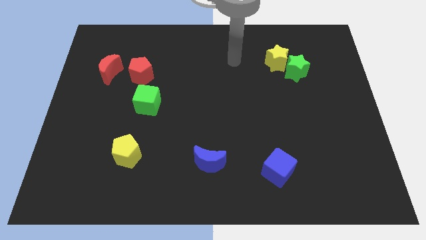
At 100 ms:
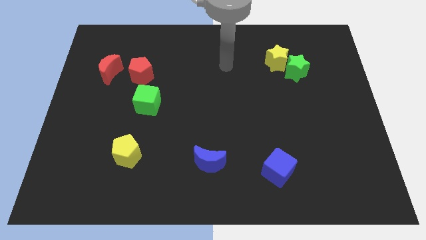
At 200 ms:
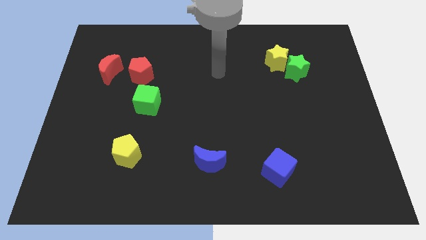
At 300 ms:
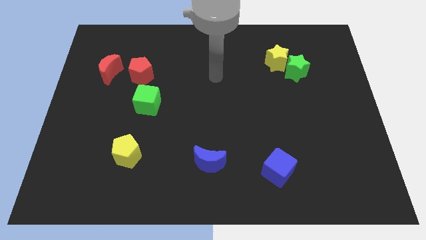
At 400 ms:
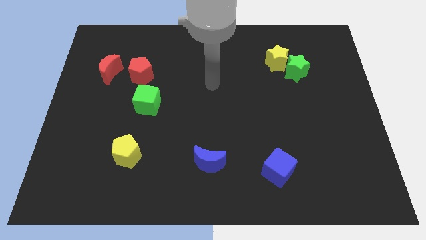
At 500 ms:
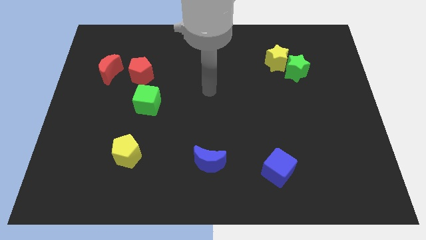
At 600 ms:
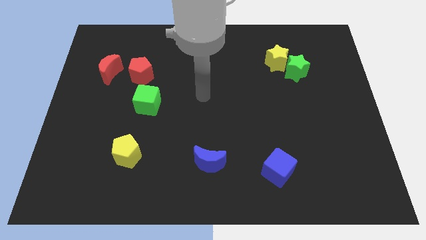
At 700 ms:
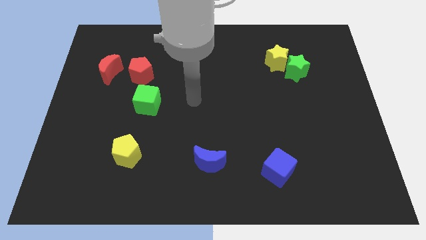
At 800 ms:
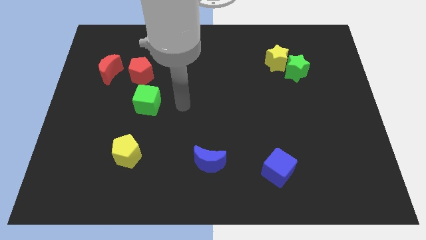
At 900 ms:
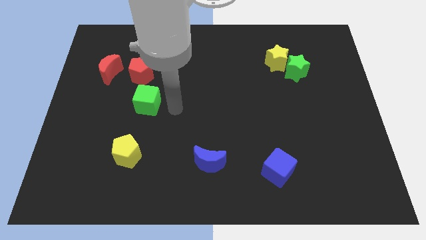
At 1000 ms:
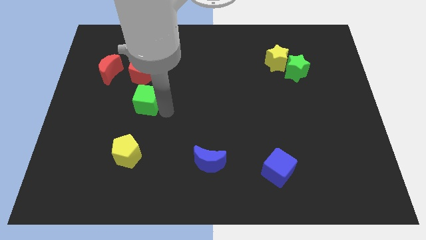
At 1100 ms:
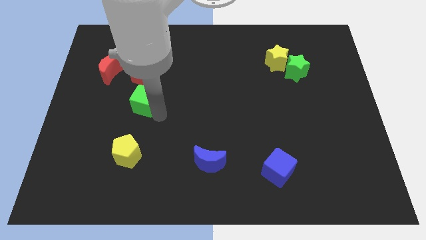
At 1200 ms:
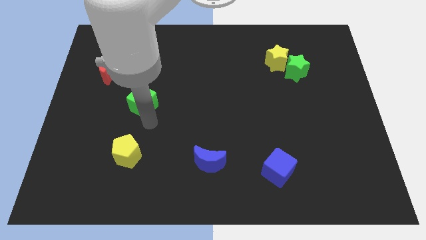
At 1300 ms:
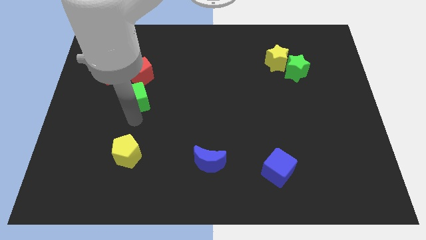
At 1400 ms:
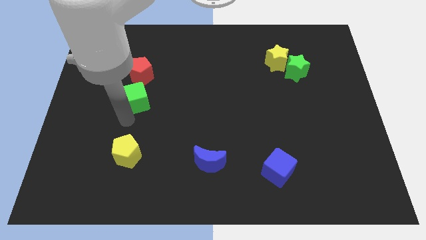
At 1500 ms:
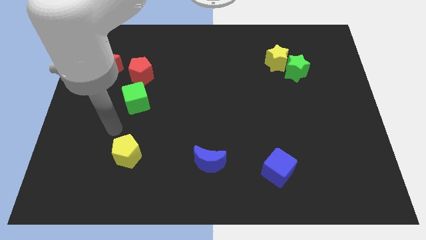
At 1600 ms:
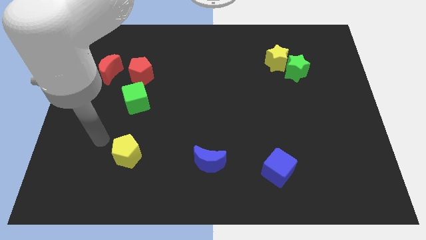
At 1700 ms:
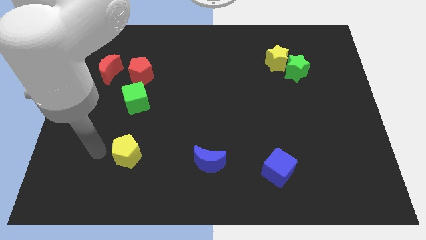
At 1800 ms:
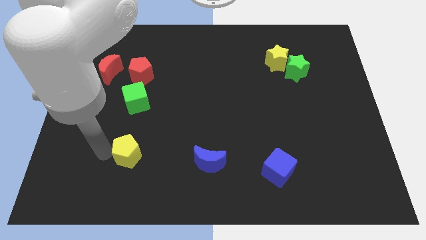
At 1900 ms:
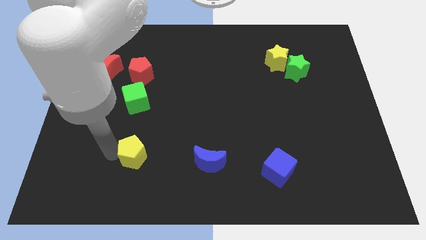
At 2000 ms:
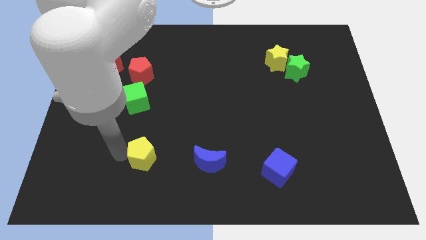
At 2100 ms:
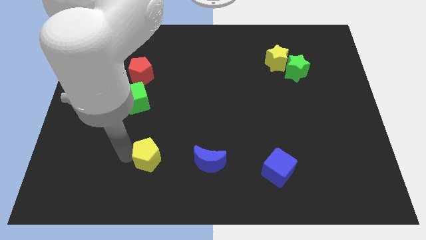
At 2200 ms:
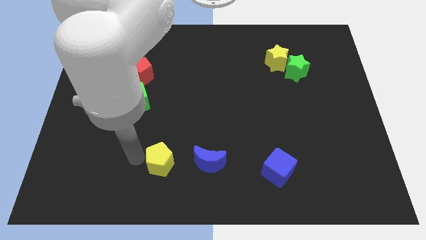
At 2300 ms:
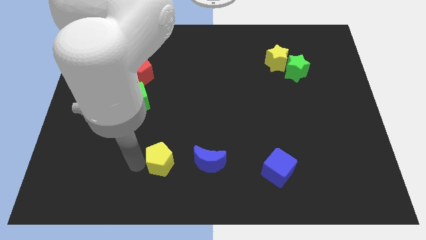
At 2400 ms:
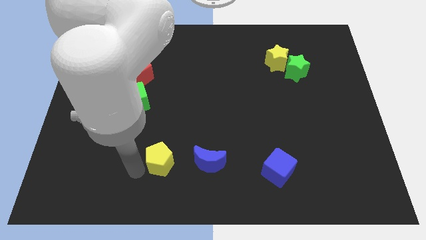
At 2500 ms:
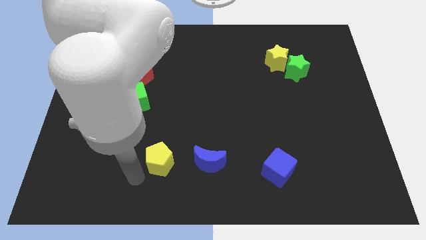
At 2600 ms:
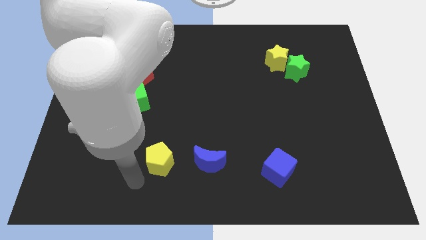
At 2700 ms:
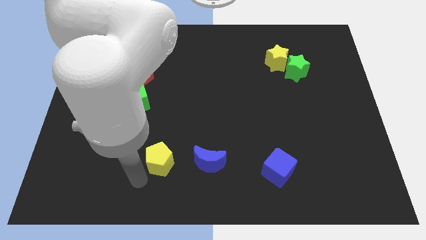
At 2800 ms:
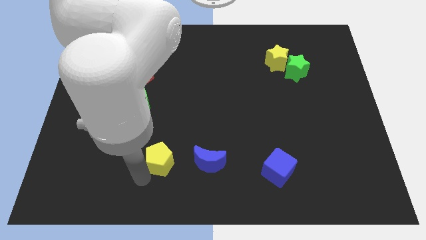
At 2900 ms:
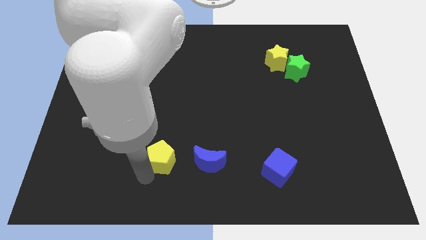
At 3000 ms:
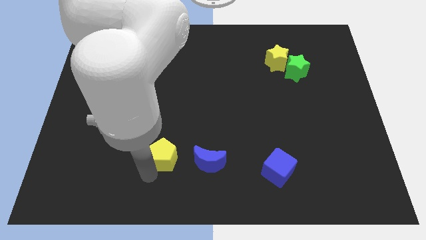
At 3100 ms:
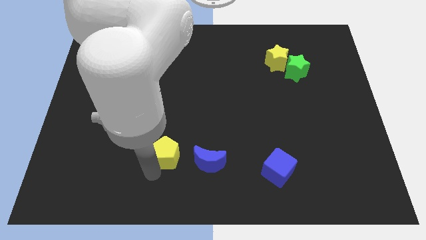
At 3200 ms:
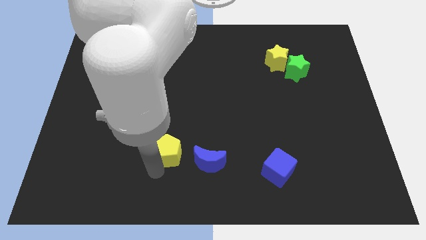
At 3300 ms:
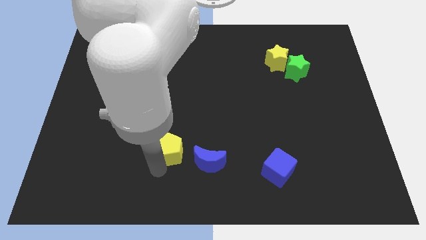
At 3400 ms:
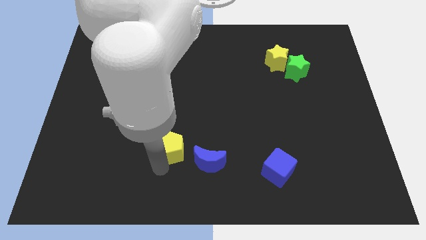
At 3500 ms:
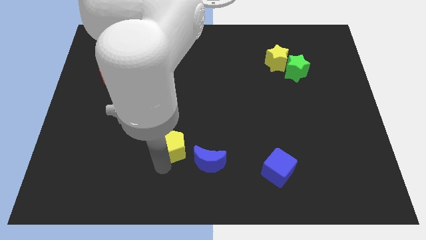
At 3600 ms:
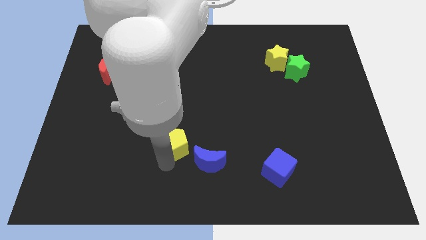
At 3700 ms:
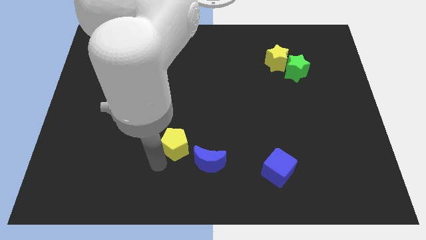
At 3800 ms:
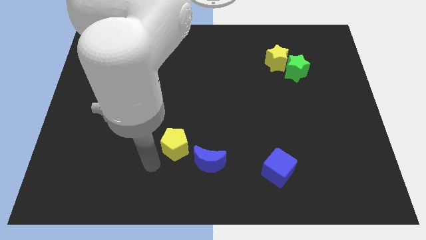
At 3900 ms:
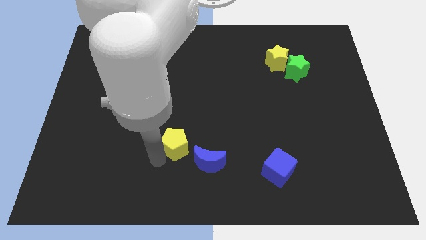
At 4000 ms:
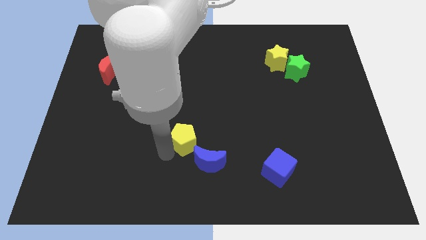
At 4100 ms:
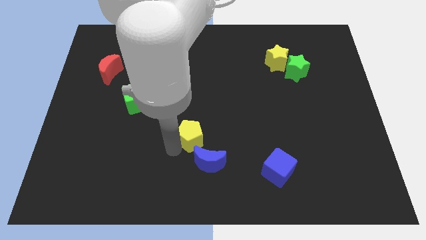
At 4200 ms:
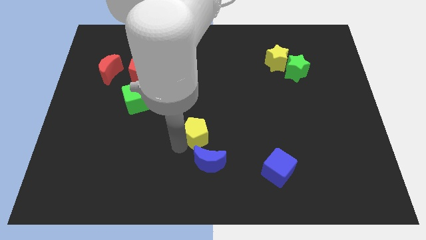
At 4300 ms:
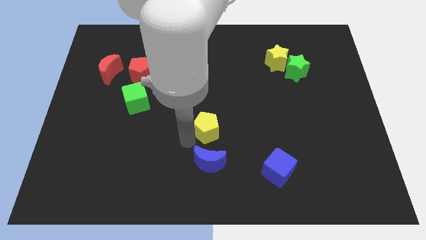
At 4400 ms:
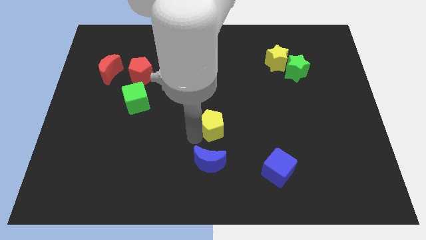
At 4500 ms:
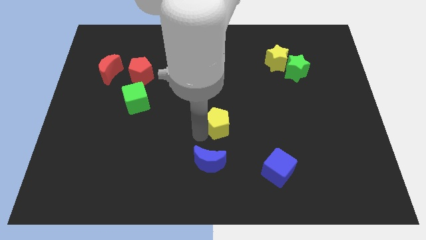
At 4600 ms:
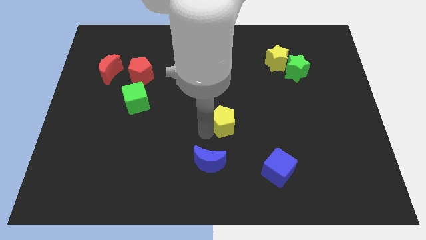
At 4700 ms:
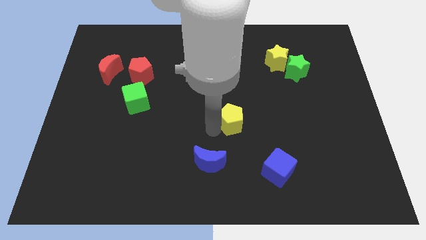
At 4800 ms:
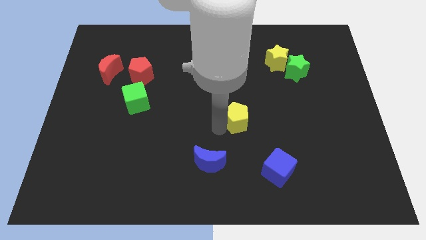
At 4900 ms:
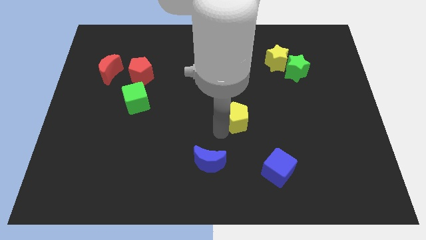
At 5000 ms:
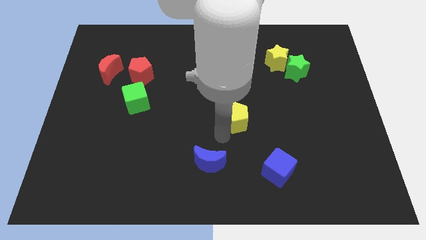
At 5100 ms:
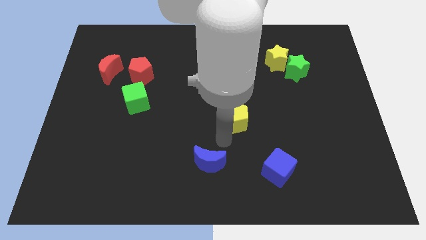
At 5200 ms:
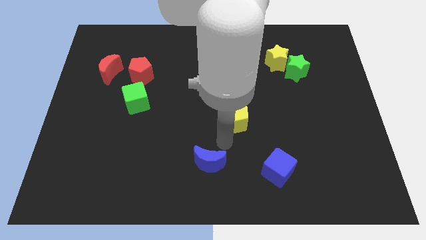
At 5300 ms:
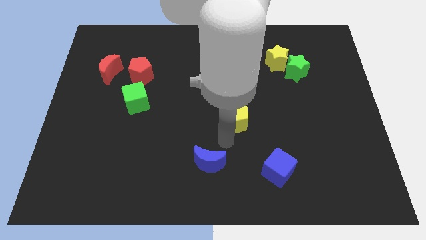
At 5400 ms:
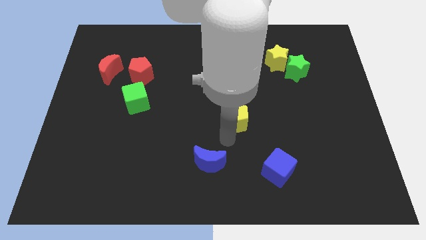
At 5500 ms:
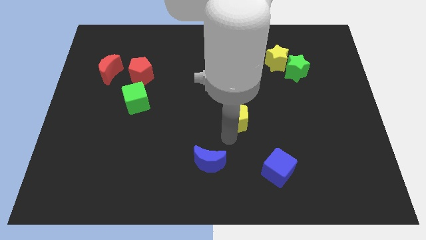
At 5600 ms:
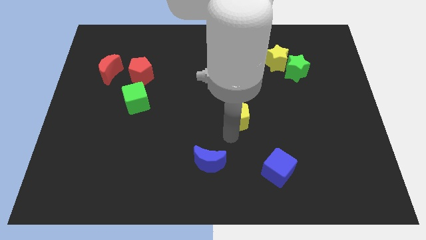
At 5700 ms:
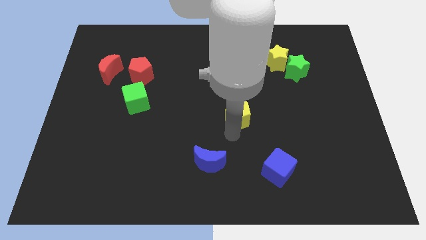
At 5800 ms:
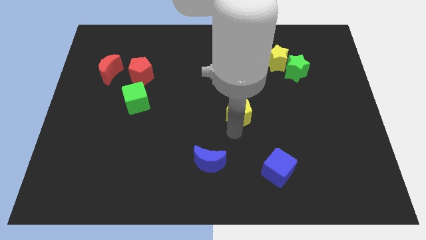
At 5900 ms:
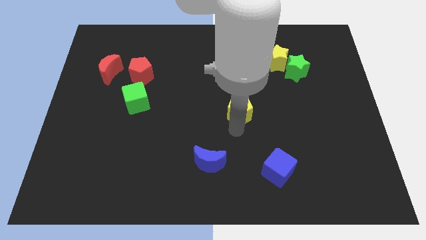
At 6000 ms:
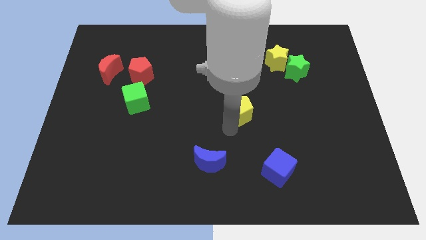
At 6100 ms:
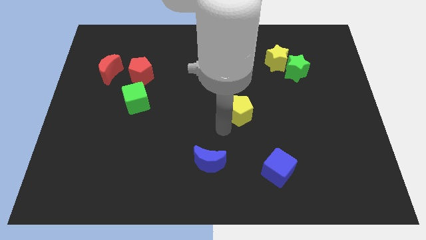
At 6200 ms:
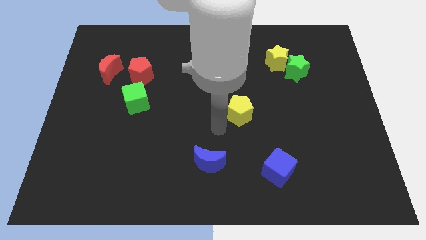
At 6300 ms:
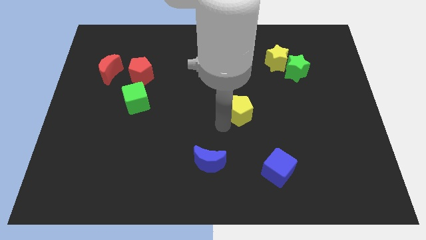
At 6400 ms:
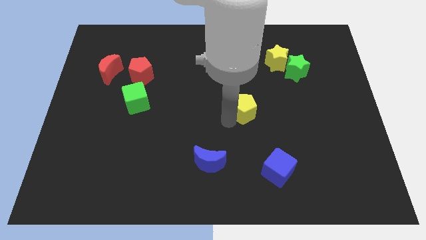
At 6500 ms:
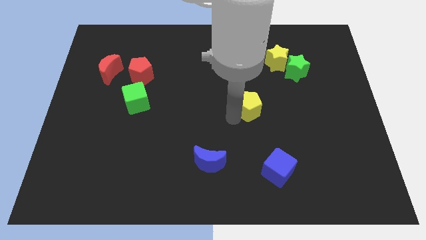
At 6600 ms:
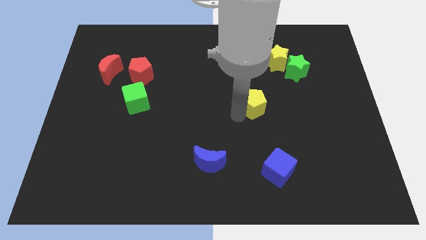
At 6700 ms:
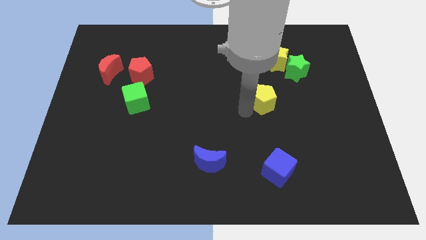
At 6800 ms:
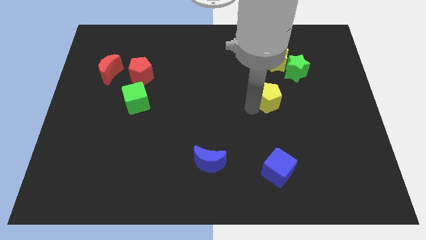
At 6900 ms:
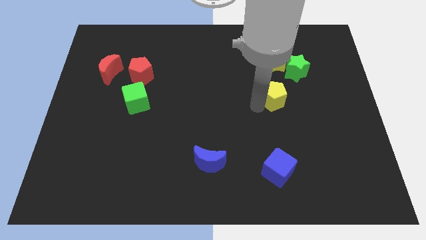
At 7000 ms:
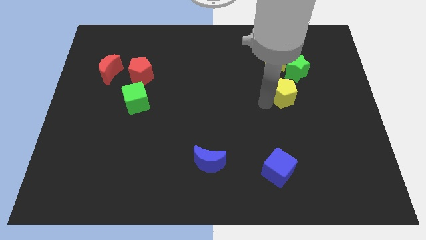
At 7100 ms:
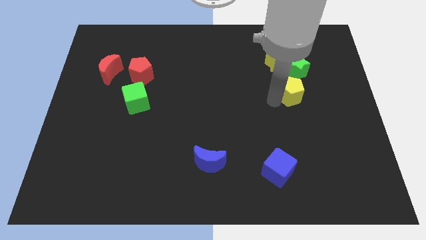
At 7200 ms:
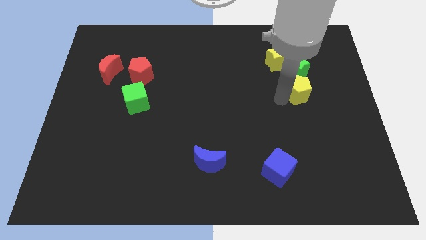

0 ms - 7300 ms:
slide the yellow pentagon to the bottom right side of the yellow star
